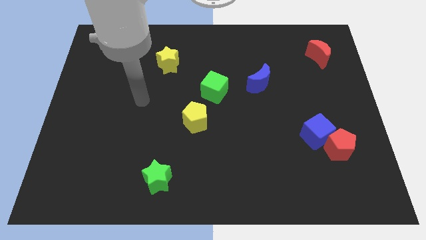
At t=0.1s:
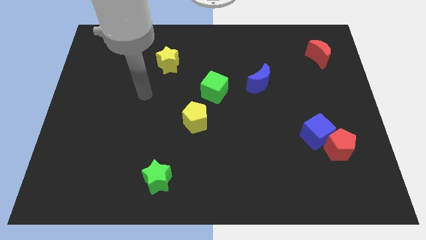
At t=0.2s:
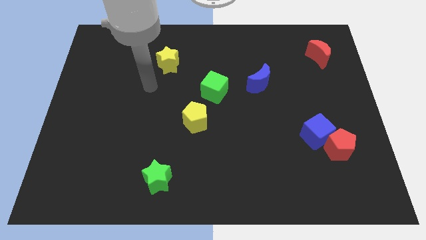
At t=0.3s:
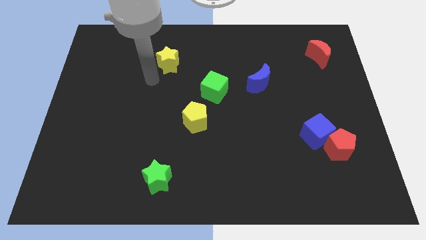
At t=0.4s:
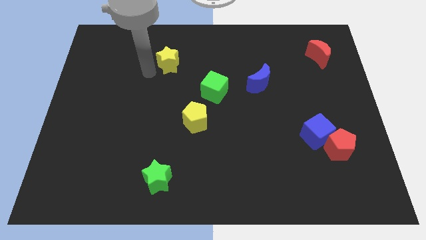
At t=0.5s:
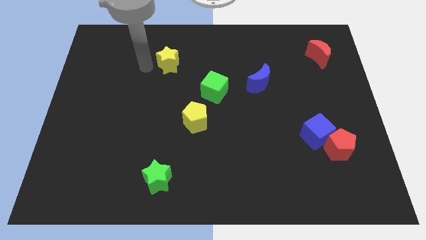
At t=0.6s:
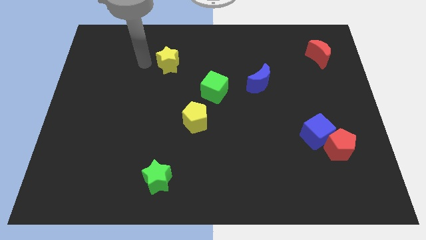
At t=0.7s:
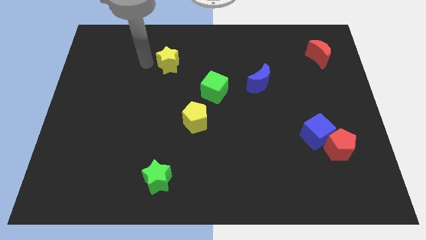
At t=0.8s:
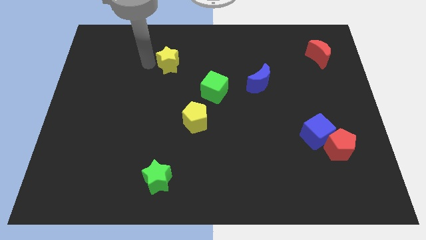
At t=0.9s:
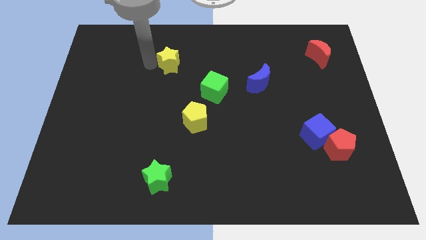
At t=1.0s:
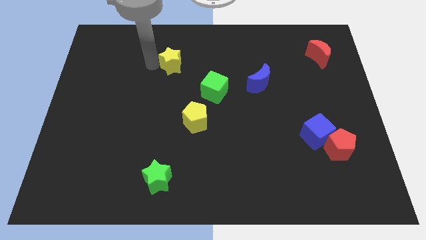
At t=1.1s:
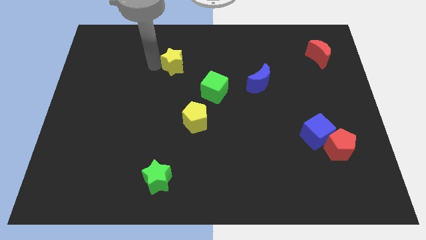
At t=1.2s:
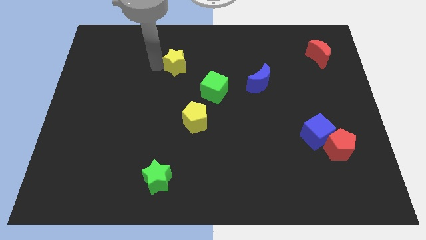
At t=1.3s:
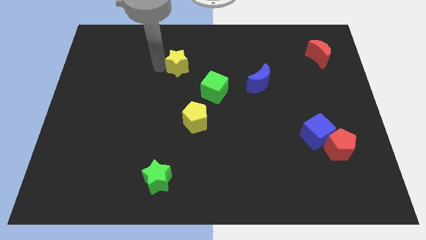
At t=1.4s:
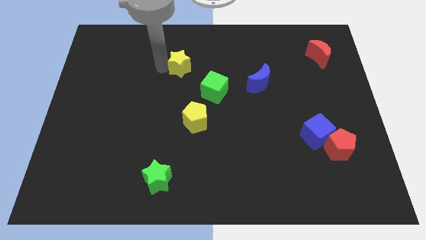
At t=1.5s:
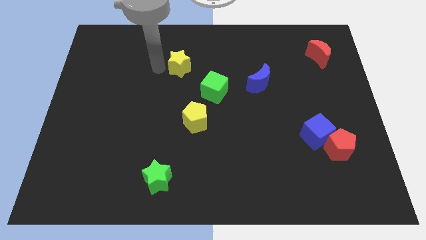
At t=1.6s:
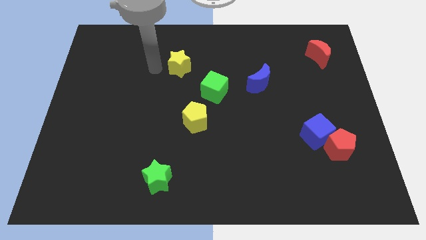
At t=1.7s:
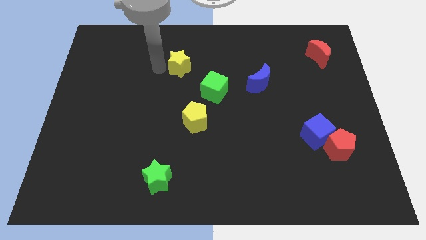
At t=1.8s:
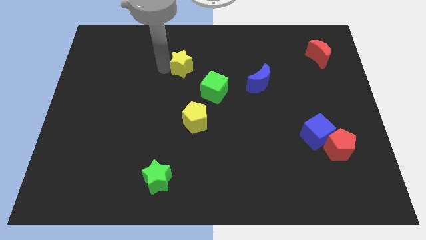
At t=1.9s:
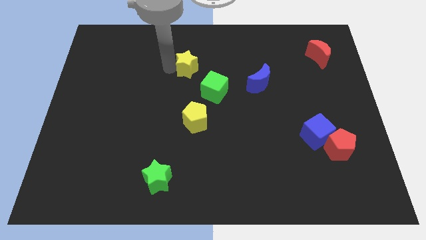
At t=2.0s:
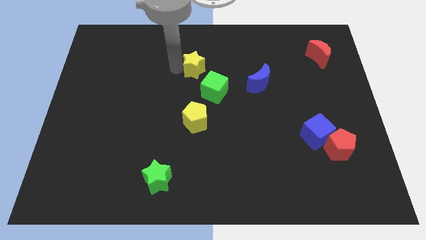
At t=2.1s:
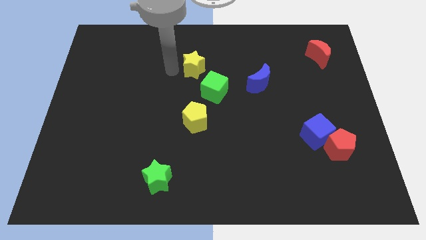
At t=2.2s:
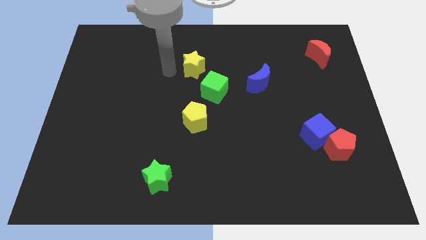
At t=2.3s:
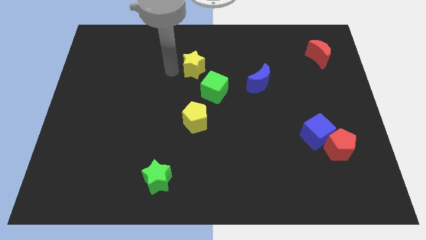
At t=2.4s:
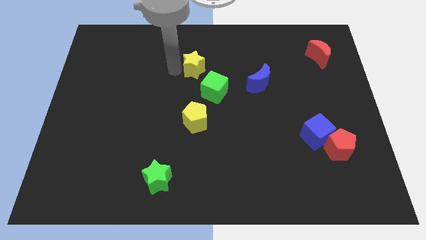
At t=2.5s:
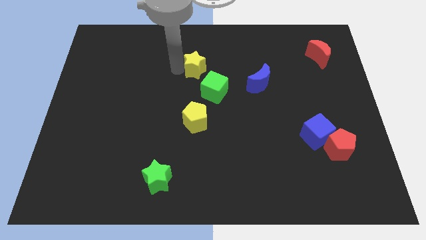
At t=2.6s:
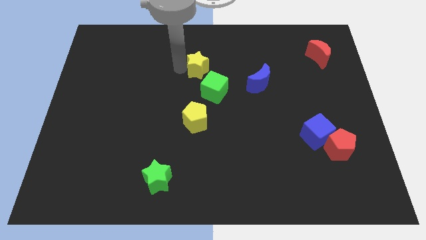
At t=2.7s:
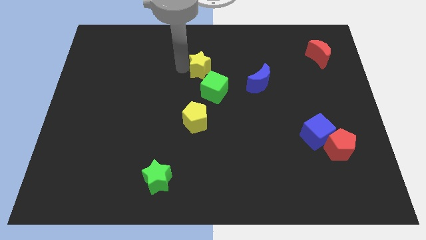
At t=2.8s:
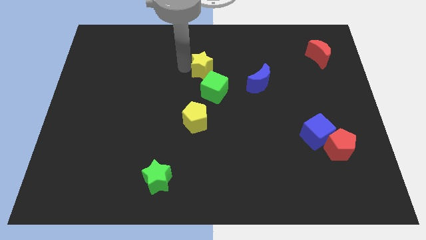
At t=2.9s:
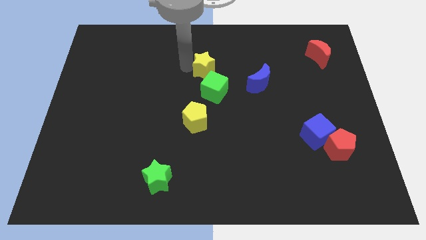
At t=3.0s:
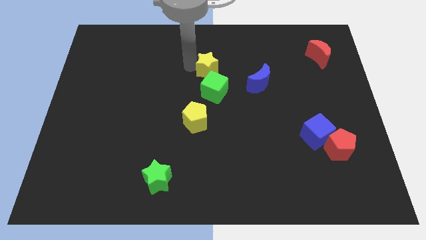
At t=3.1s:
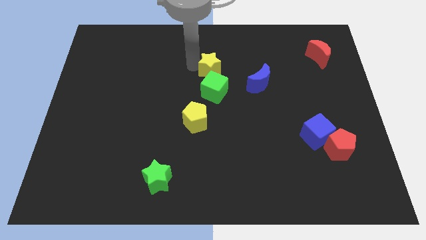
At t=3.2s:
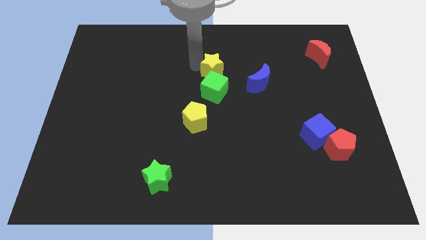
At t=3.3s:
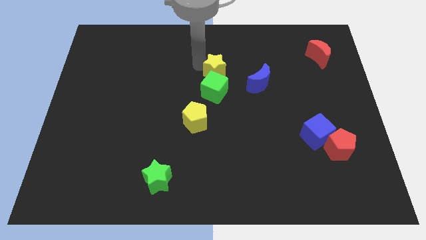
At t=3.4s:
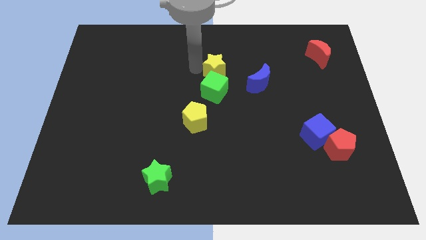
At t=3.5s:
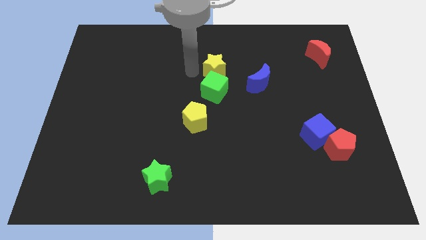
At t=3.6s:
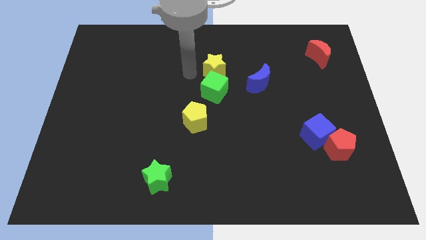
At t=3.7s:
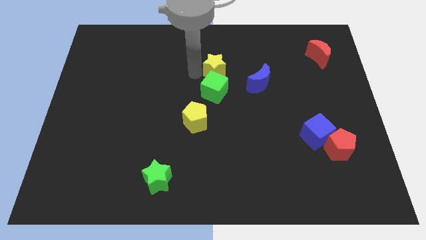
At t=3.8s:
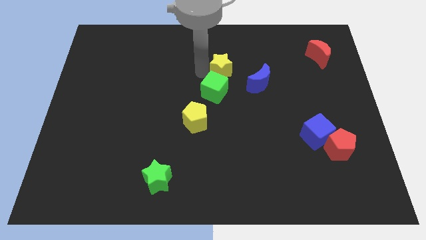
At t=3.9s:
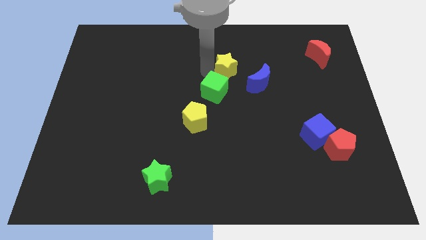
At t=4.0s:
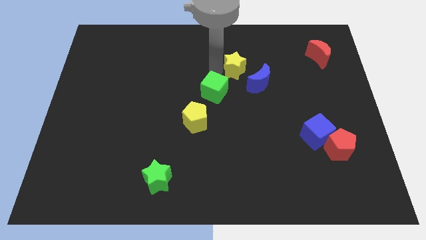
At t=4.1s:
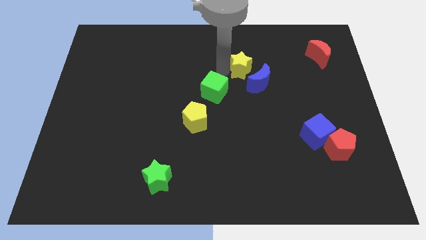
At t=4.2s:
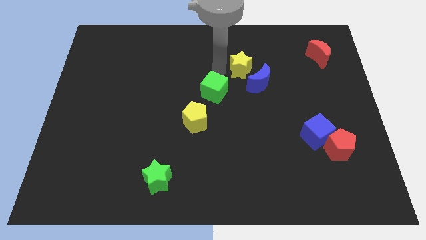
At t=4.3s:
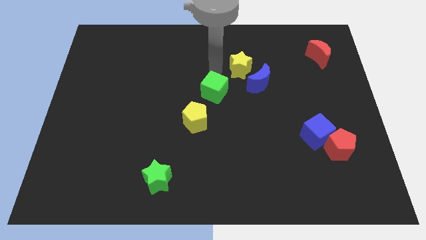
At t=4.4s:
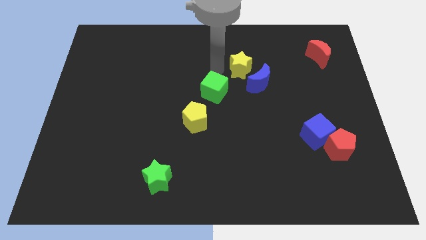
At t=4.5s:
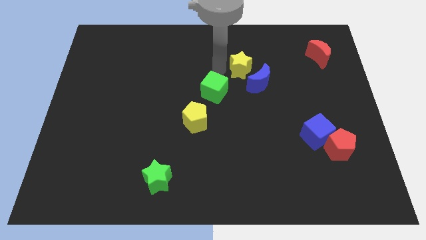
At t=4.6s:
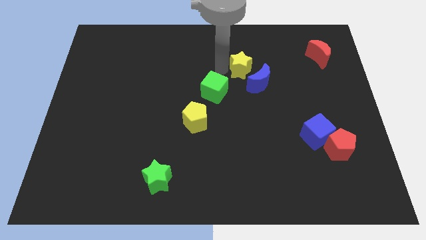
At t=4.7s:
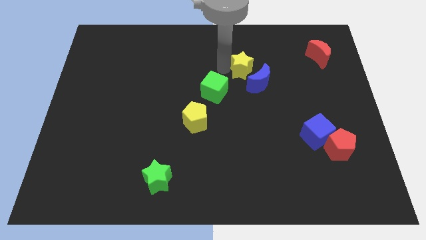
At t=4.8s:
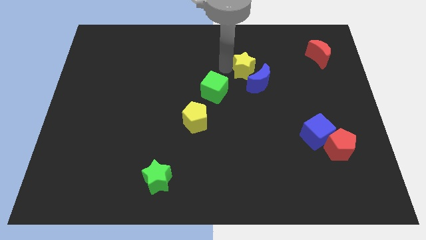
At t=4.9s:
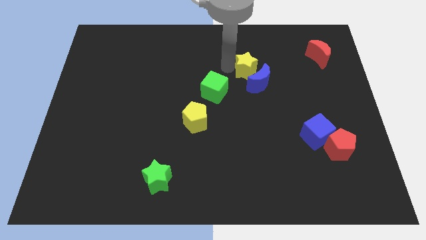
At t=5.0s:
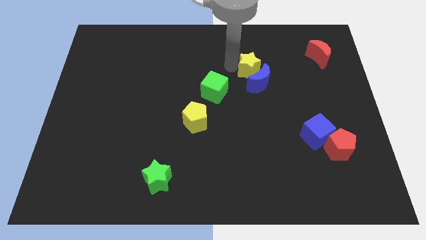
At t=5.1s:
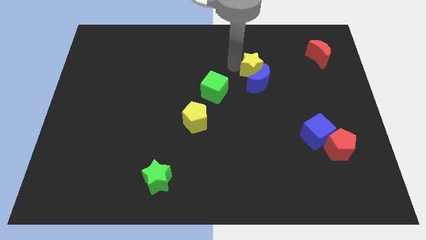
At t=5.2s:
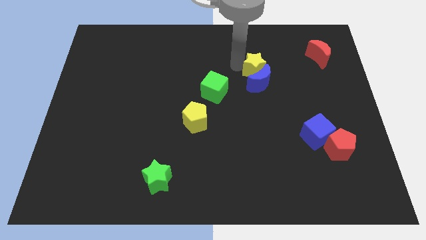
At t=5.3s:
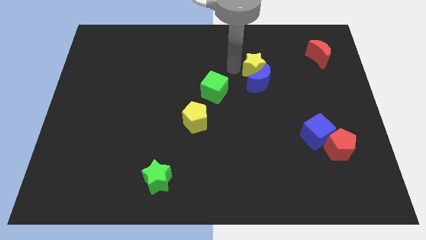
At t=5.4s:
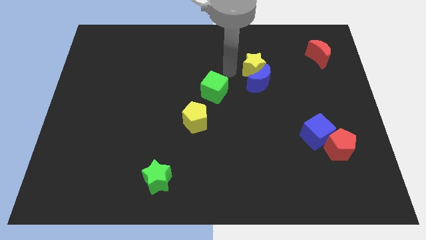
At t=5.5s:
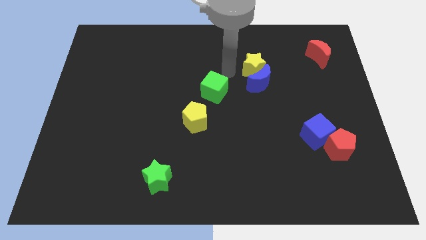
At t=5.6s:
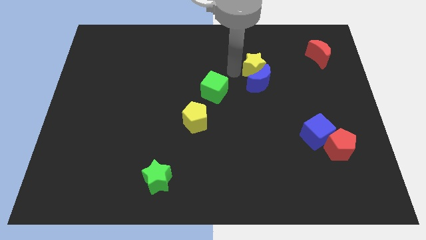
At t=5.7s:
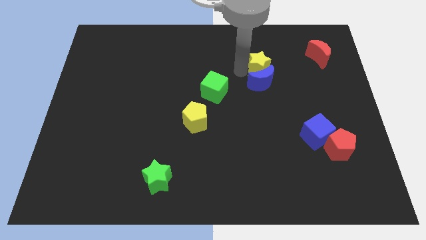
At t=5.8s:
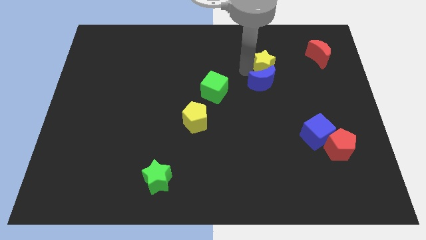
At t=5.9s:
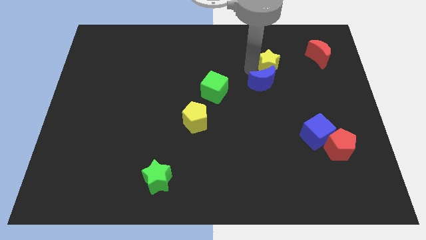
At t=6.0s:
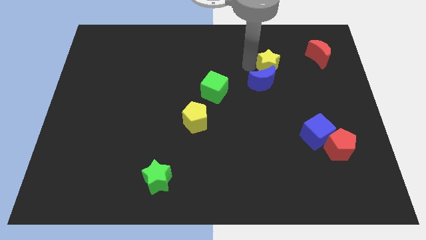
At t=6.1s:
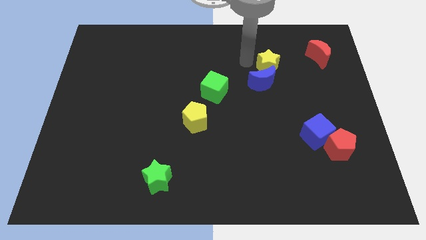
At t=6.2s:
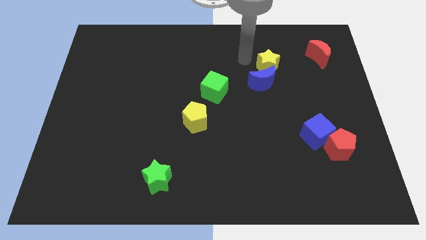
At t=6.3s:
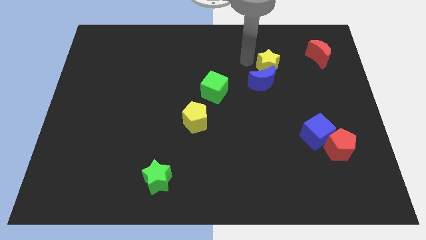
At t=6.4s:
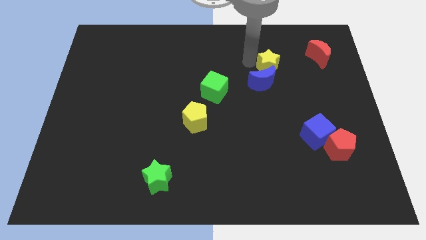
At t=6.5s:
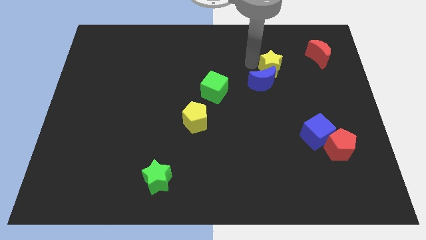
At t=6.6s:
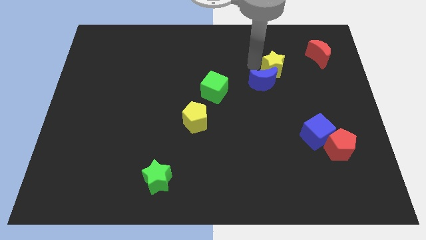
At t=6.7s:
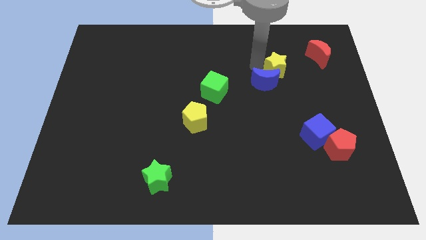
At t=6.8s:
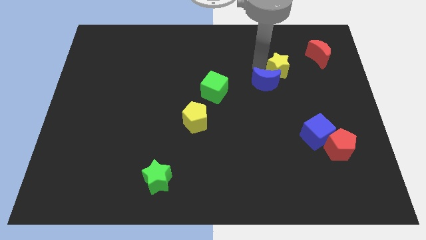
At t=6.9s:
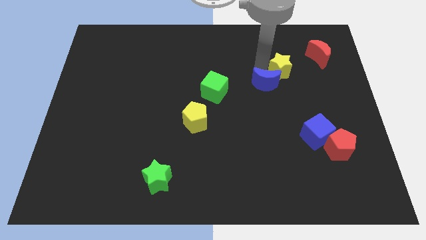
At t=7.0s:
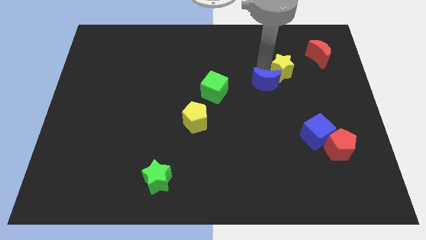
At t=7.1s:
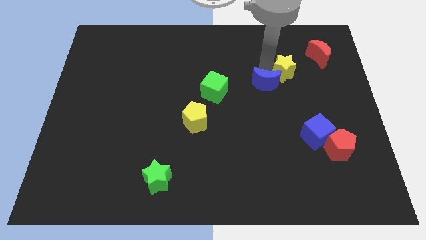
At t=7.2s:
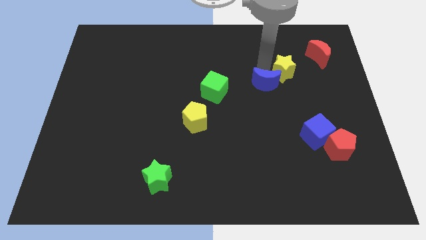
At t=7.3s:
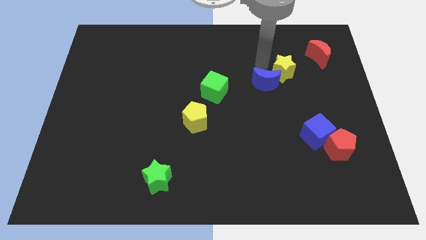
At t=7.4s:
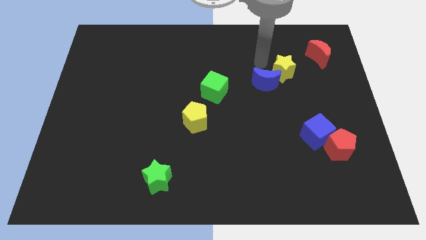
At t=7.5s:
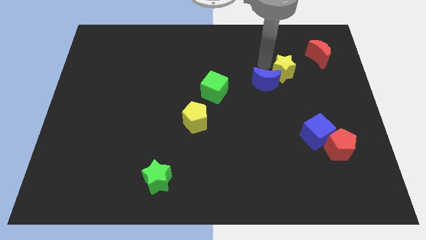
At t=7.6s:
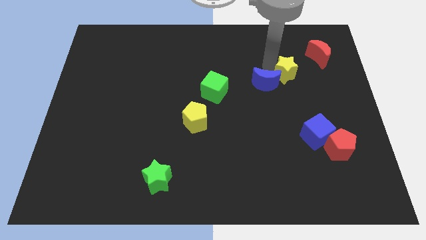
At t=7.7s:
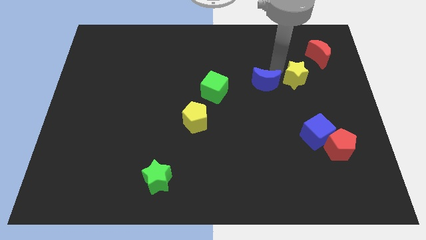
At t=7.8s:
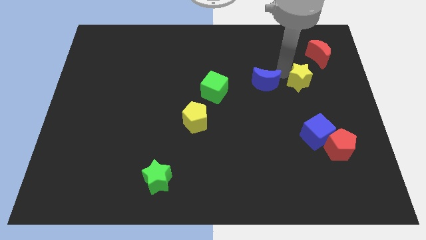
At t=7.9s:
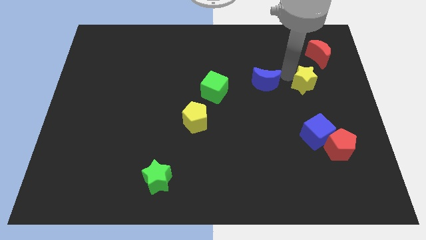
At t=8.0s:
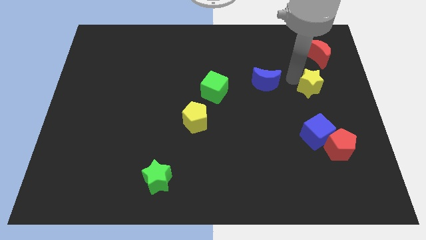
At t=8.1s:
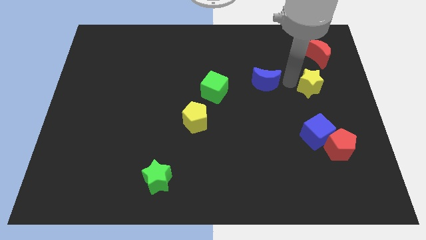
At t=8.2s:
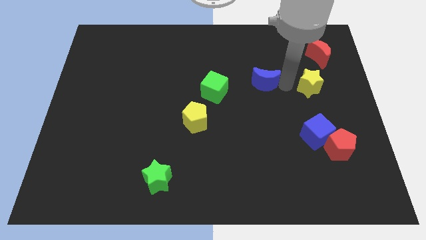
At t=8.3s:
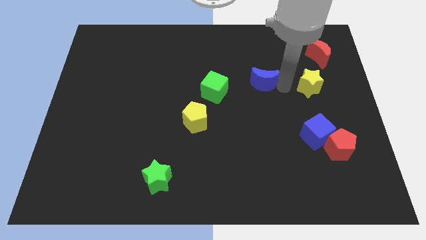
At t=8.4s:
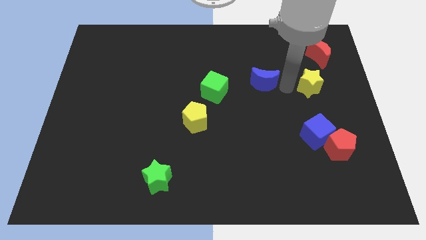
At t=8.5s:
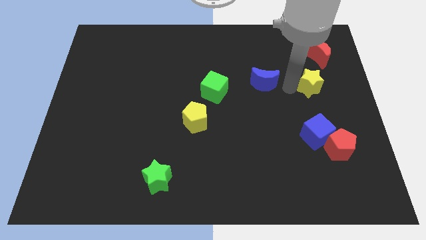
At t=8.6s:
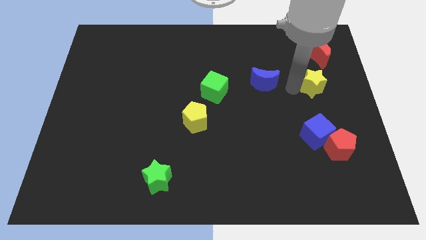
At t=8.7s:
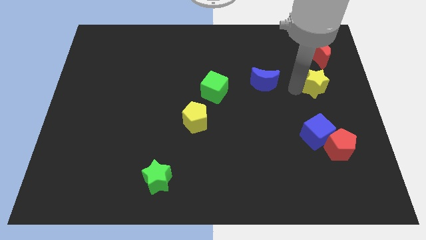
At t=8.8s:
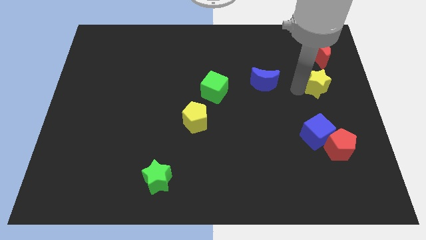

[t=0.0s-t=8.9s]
slide the yellow star to the center right
